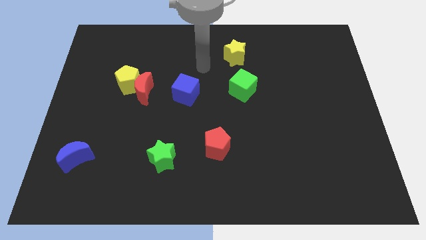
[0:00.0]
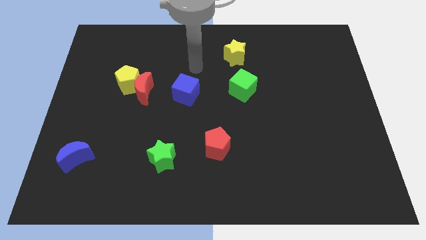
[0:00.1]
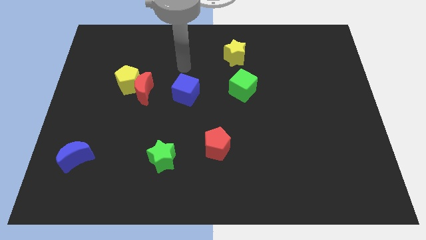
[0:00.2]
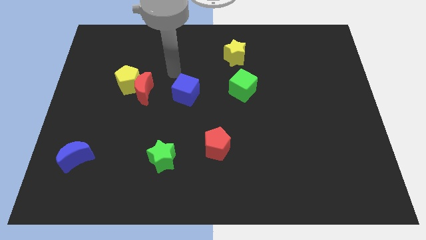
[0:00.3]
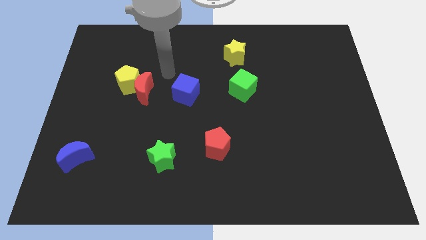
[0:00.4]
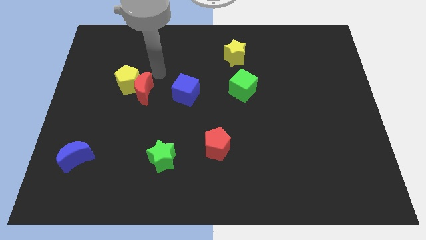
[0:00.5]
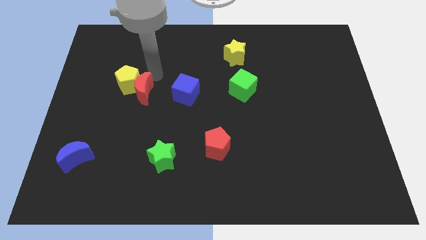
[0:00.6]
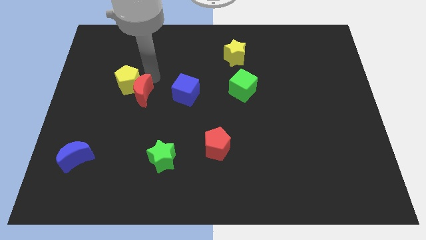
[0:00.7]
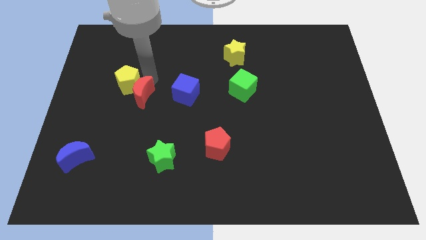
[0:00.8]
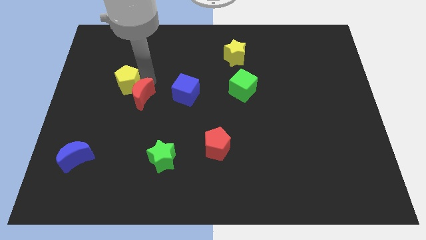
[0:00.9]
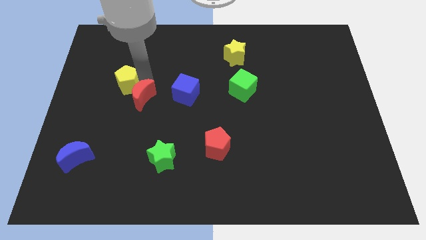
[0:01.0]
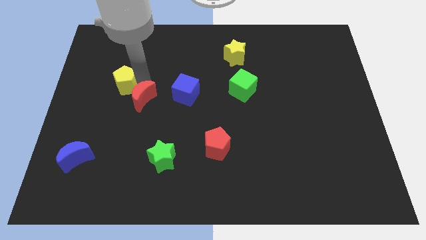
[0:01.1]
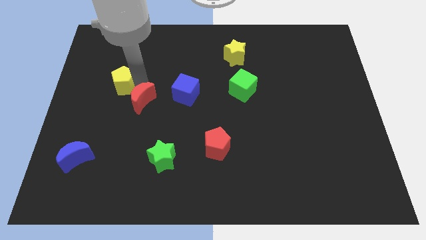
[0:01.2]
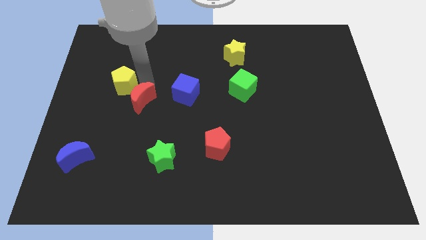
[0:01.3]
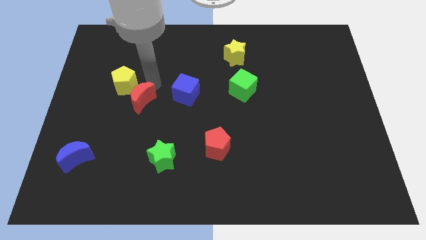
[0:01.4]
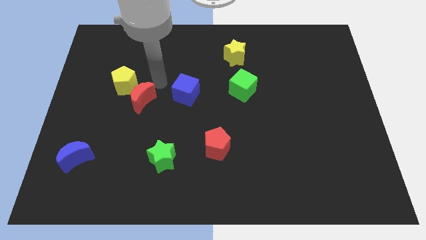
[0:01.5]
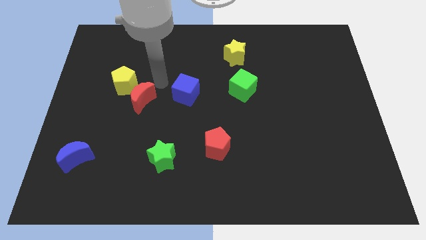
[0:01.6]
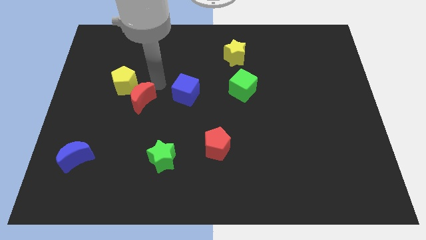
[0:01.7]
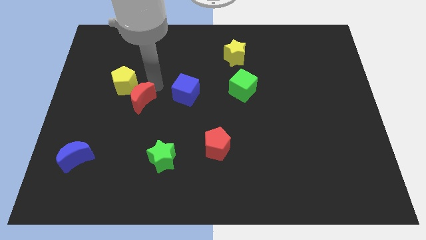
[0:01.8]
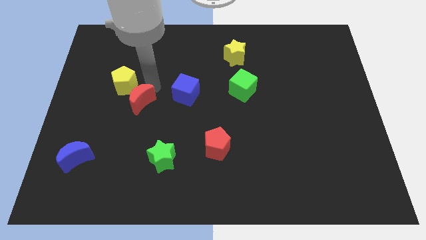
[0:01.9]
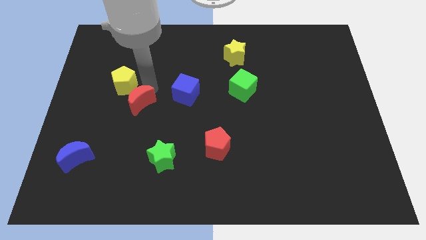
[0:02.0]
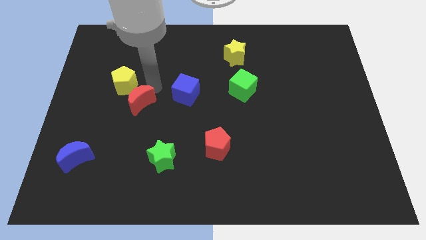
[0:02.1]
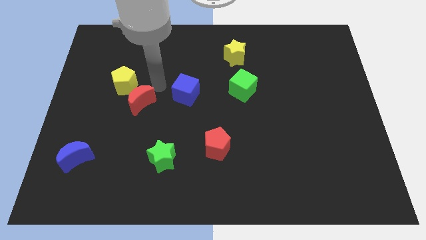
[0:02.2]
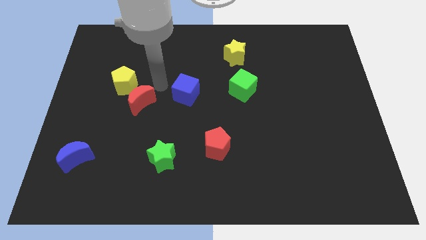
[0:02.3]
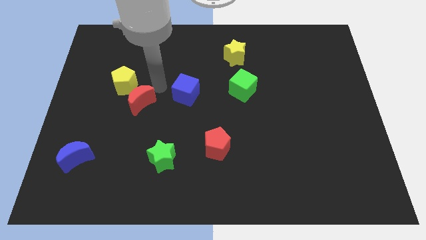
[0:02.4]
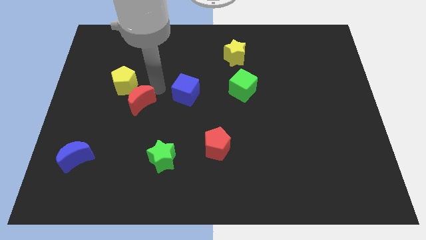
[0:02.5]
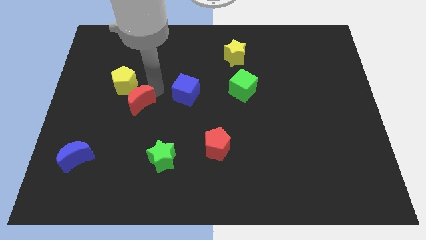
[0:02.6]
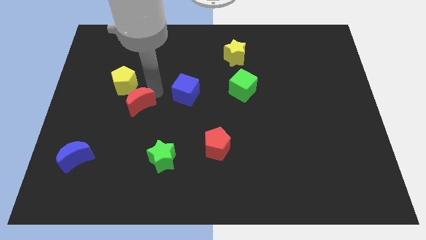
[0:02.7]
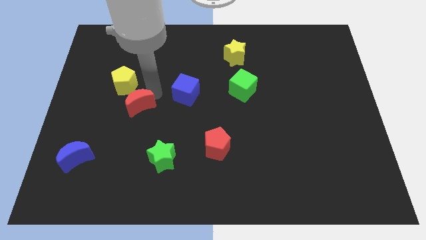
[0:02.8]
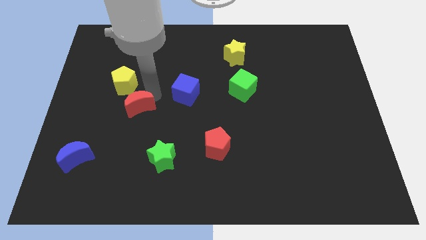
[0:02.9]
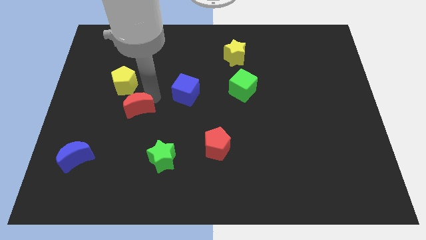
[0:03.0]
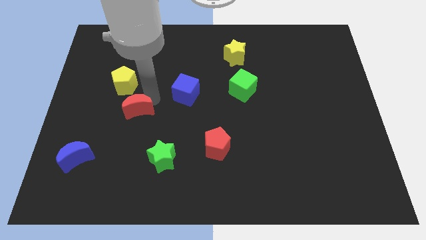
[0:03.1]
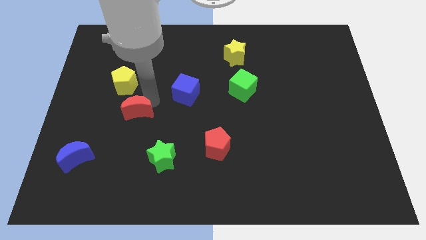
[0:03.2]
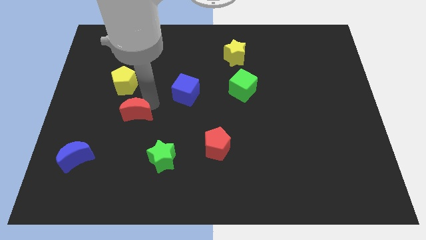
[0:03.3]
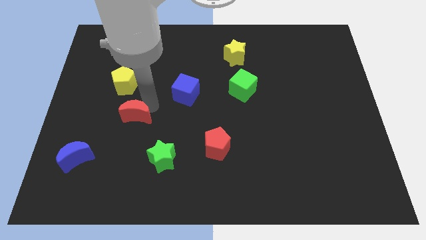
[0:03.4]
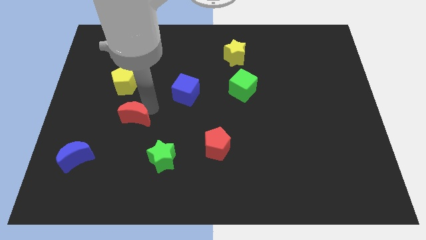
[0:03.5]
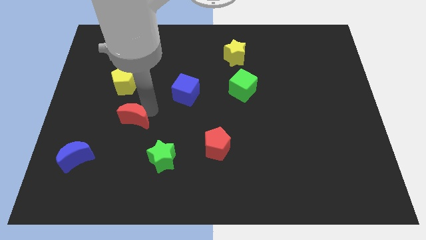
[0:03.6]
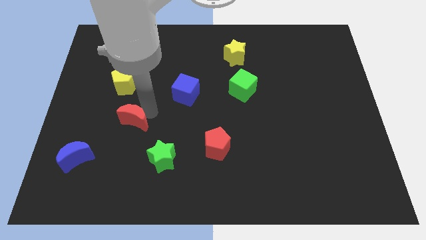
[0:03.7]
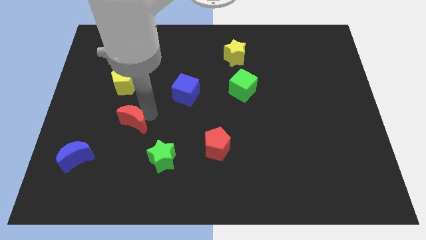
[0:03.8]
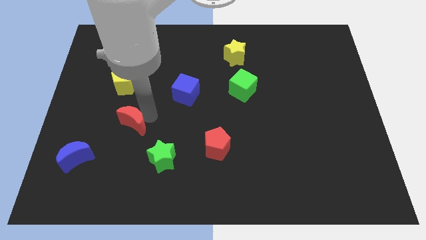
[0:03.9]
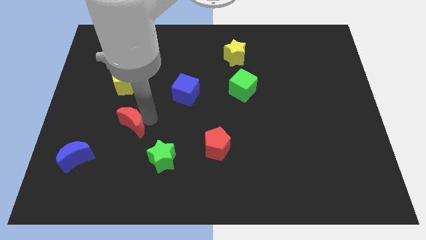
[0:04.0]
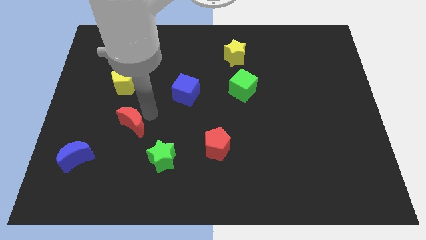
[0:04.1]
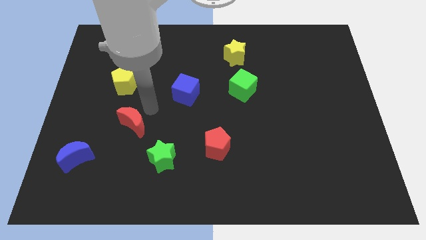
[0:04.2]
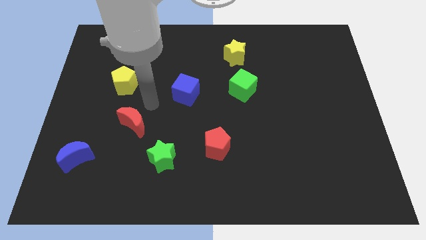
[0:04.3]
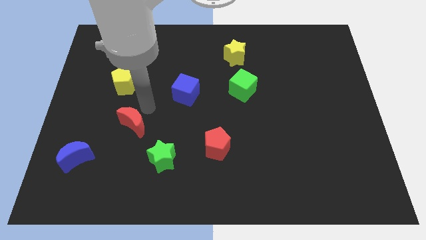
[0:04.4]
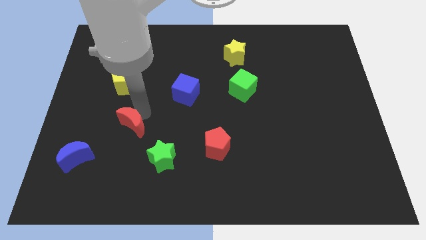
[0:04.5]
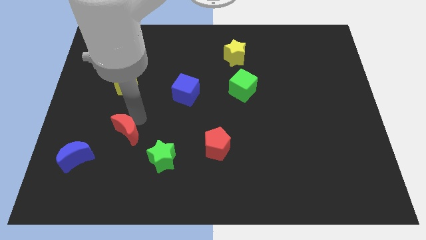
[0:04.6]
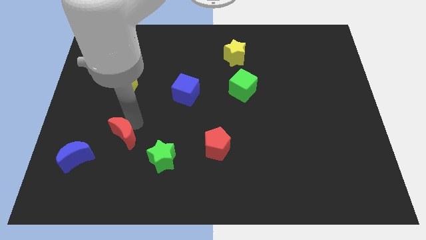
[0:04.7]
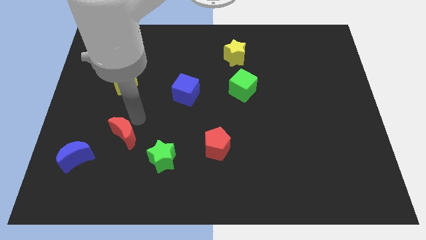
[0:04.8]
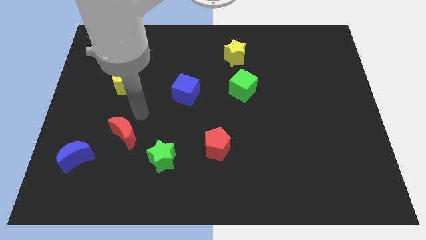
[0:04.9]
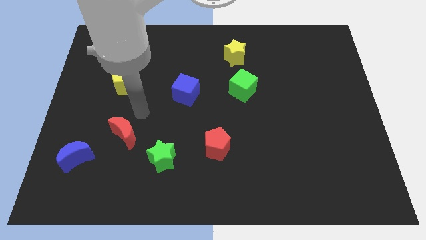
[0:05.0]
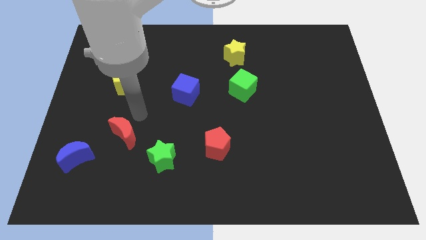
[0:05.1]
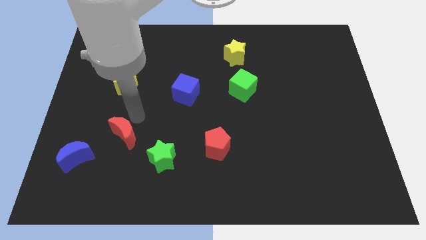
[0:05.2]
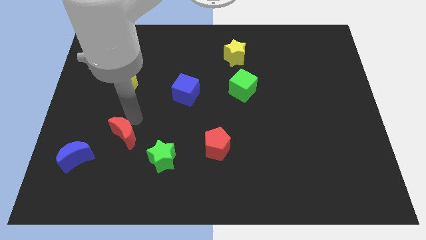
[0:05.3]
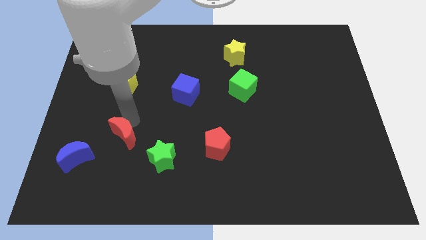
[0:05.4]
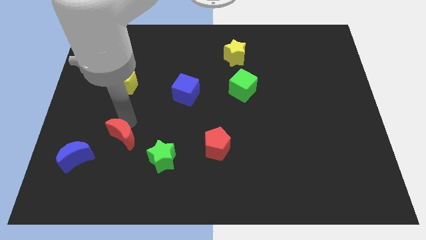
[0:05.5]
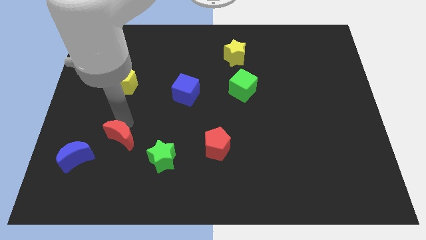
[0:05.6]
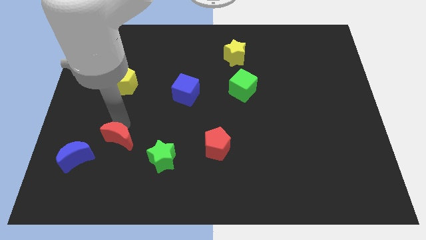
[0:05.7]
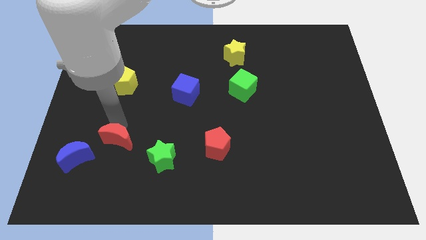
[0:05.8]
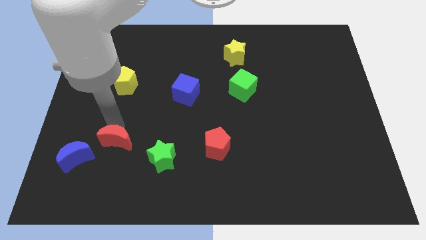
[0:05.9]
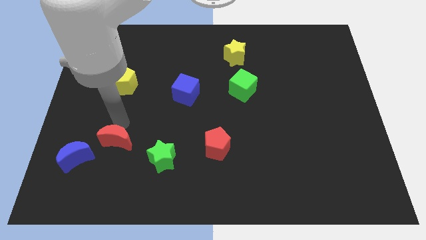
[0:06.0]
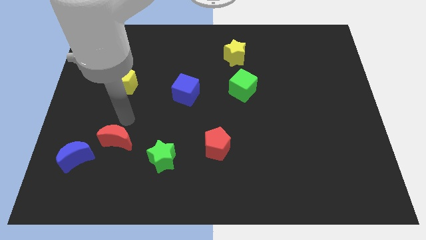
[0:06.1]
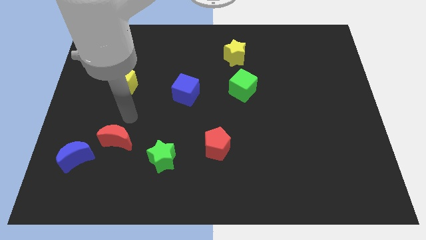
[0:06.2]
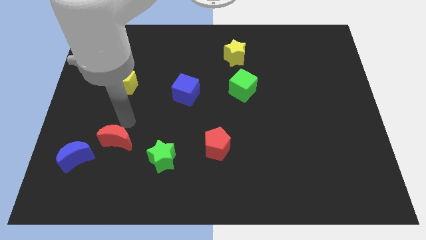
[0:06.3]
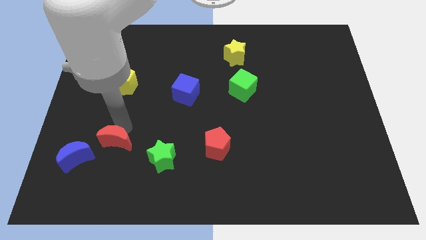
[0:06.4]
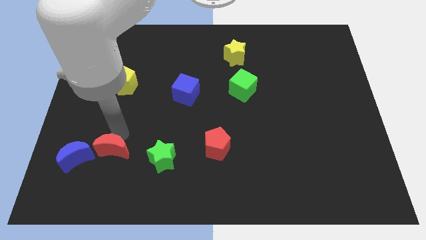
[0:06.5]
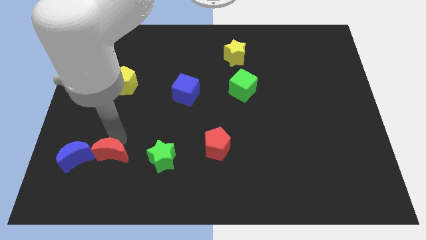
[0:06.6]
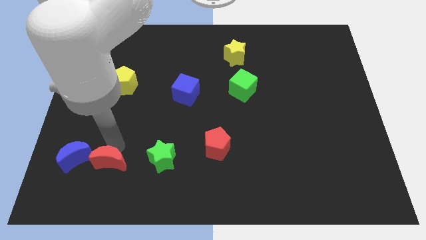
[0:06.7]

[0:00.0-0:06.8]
slide the red moon diagonally down and to the right of the blue moon

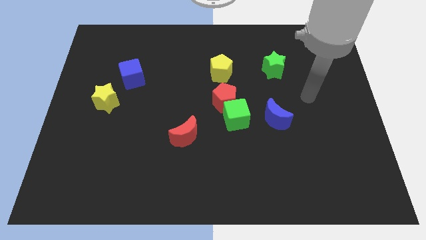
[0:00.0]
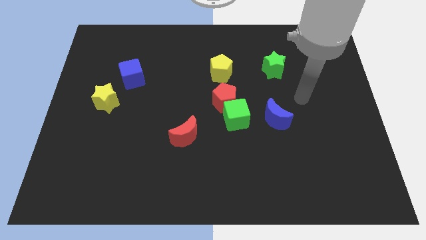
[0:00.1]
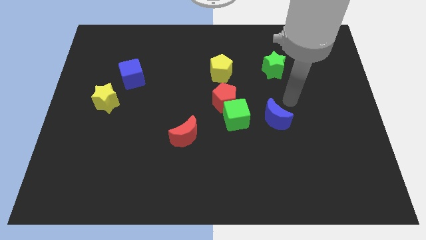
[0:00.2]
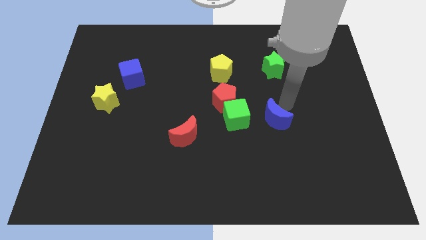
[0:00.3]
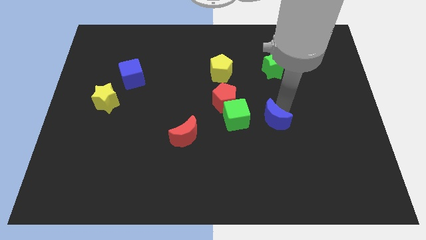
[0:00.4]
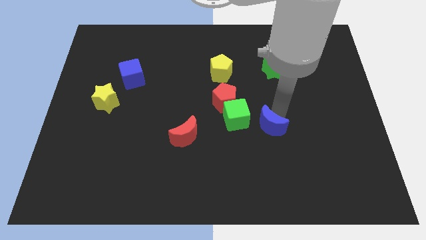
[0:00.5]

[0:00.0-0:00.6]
move the blue moon to the bottom right side of the green cube
